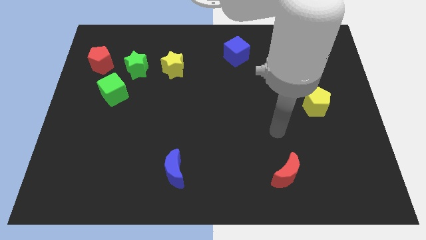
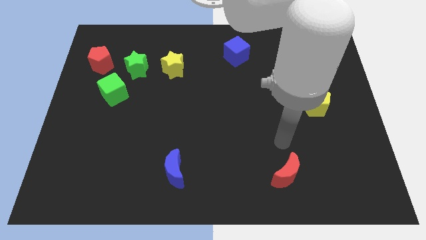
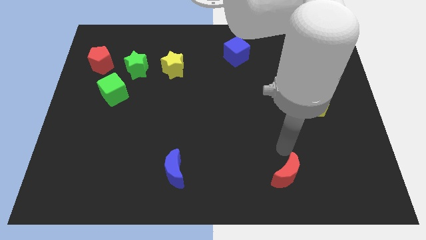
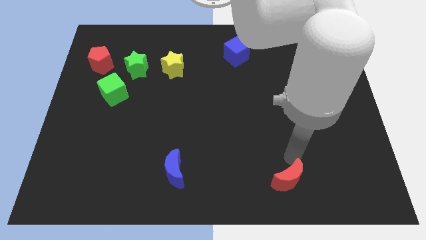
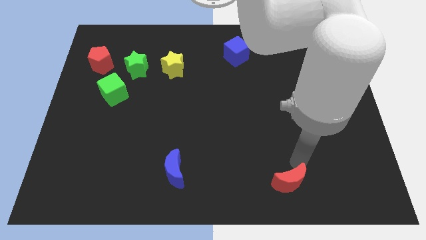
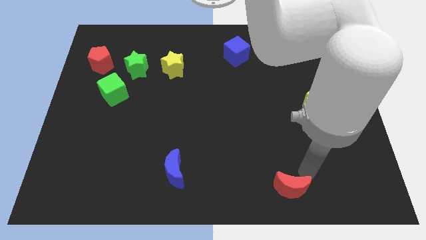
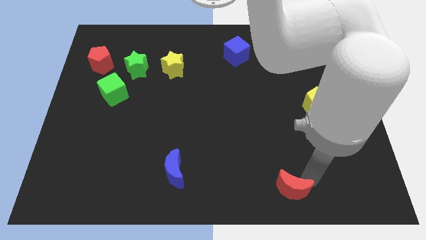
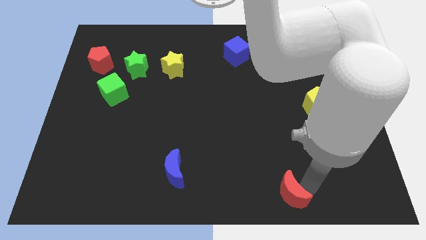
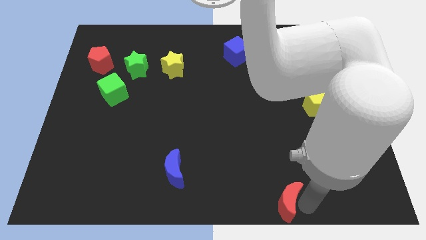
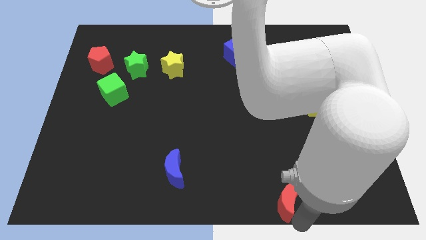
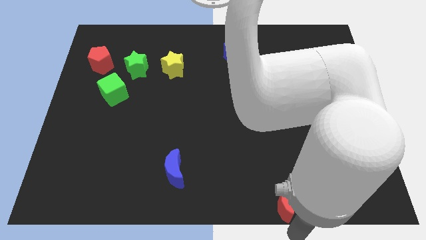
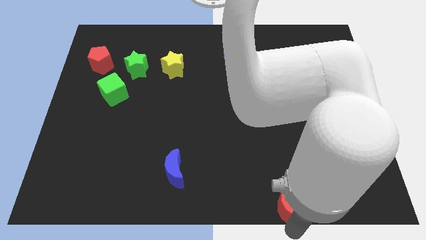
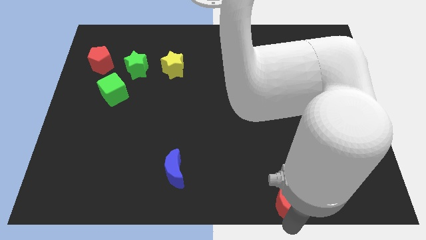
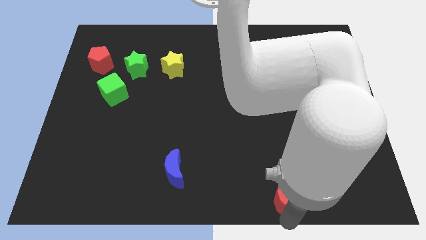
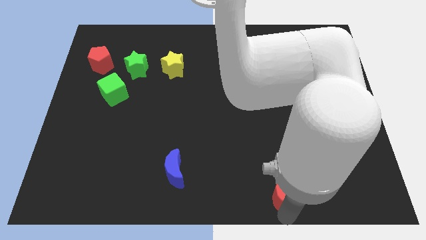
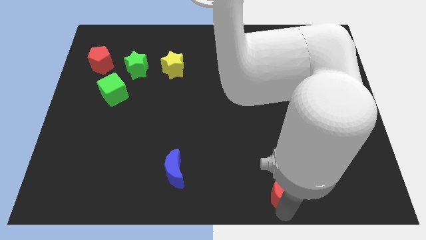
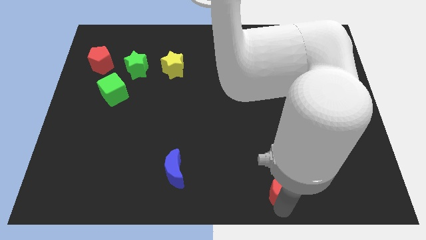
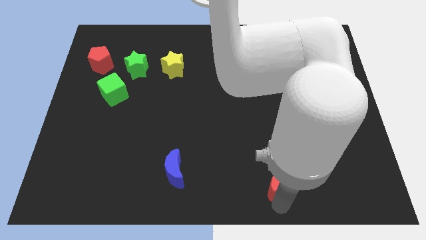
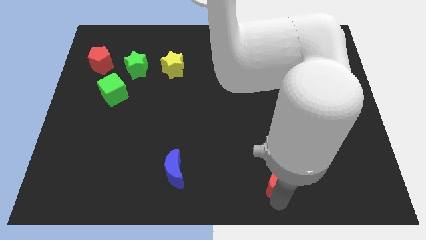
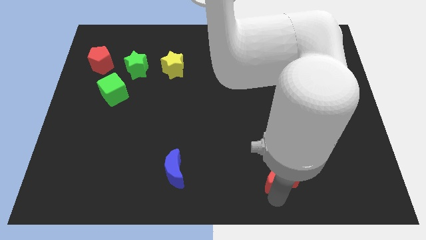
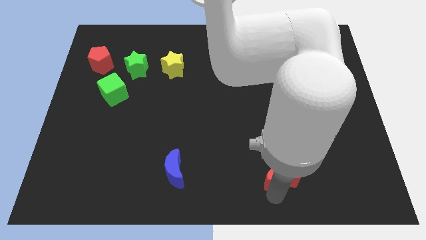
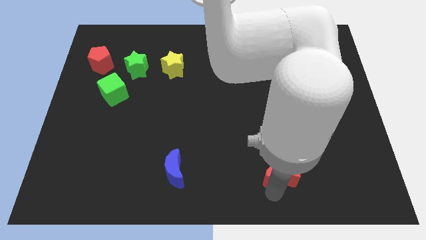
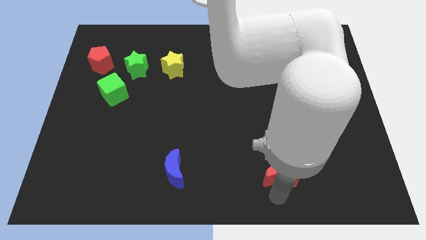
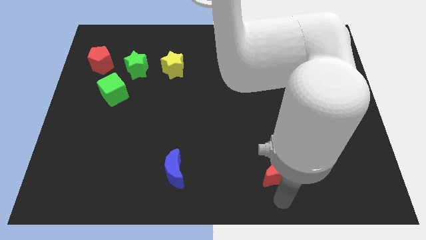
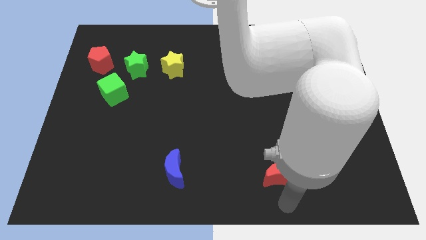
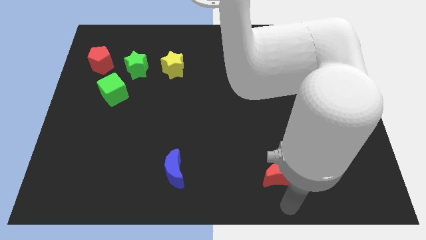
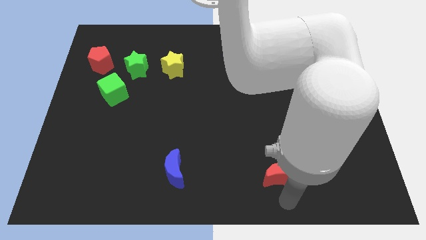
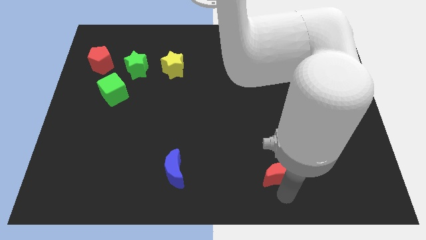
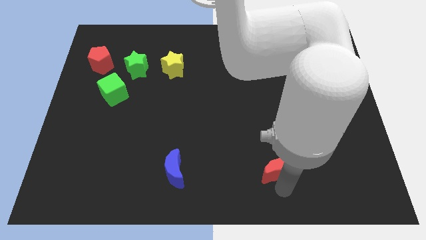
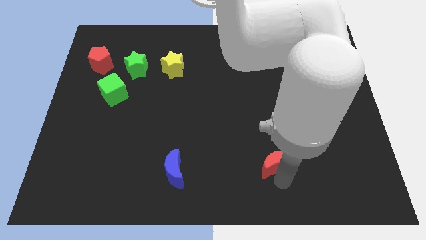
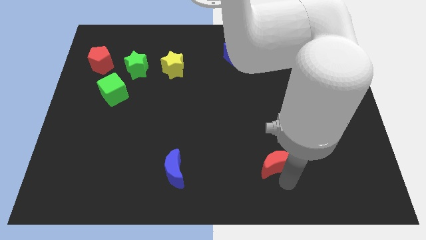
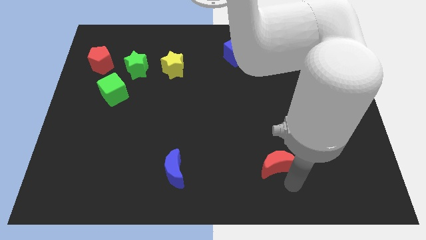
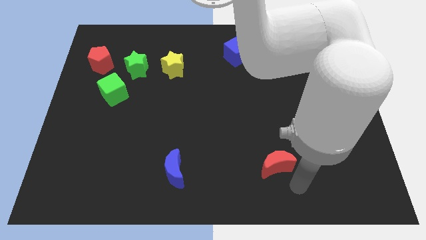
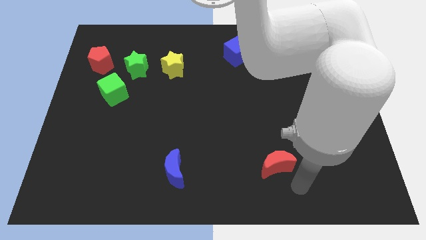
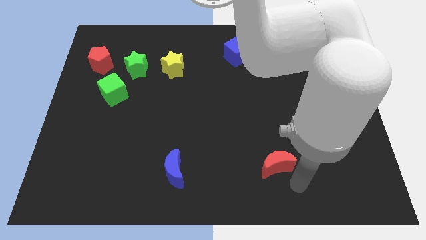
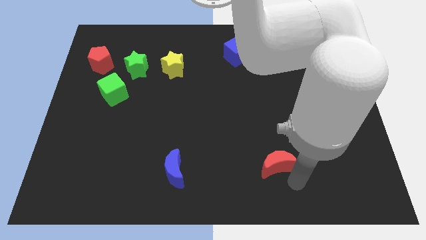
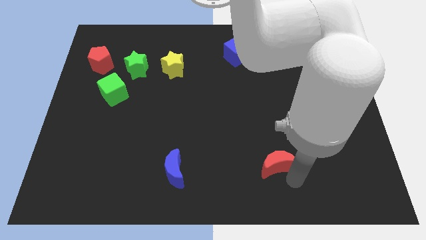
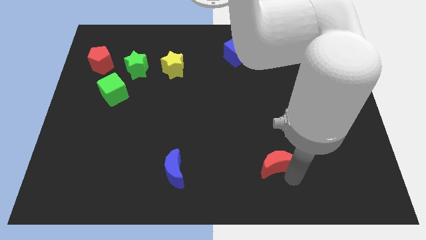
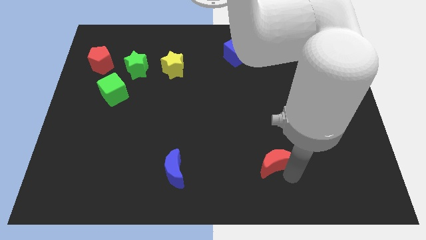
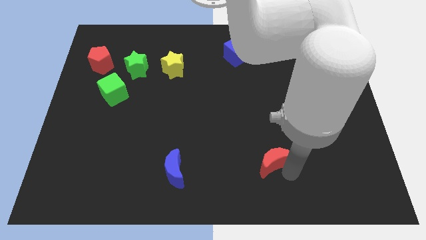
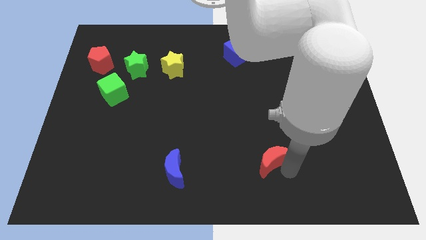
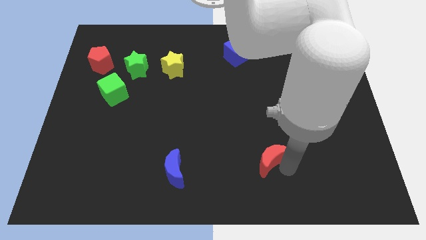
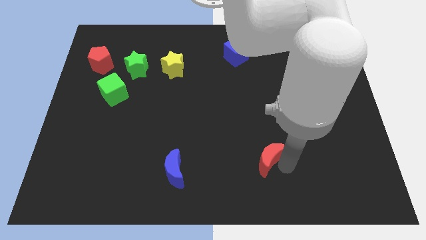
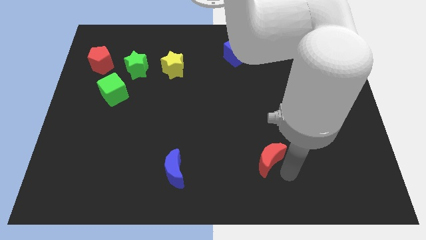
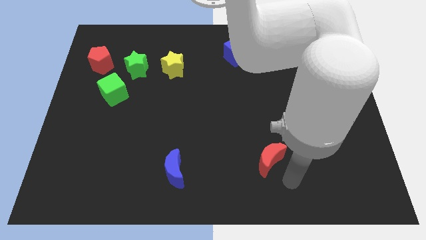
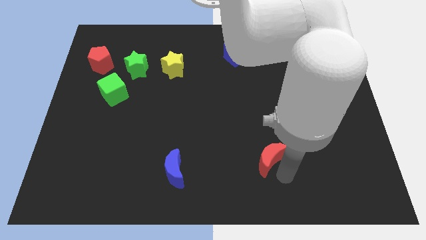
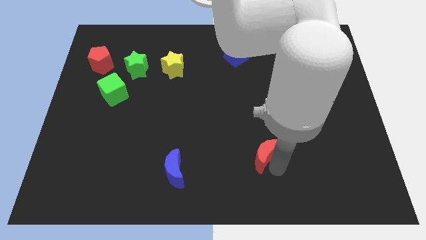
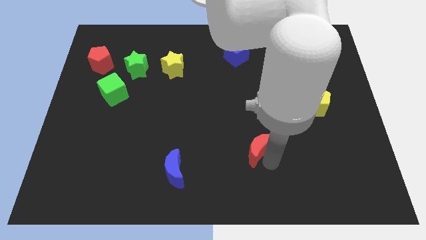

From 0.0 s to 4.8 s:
push the red moon diagonally up and to the left slightly

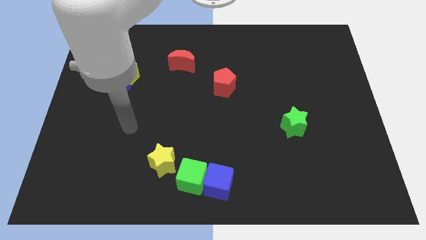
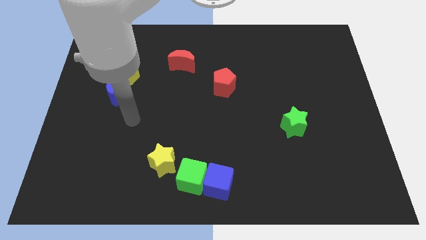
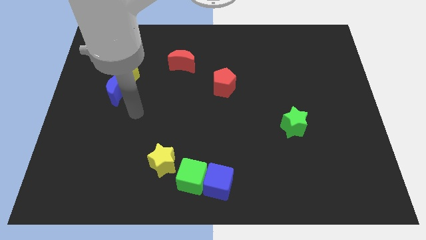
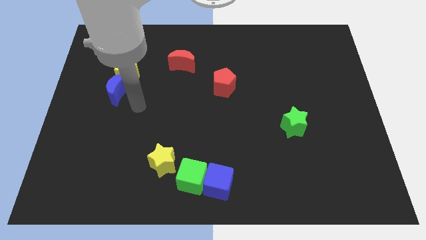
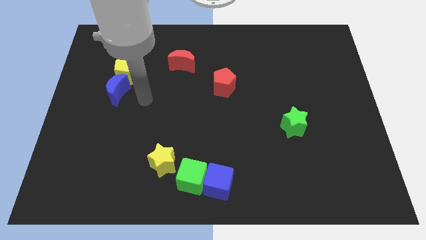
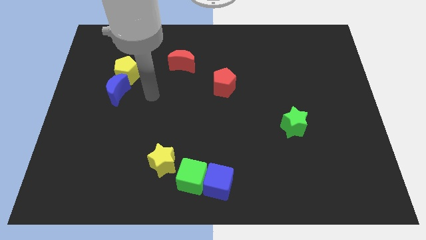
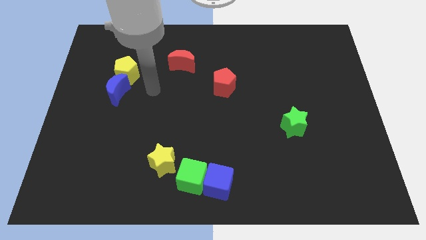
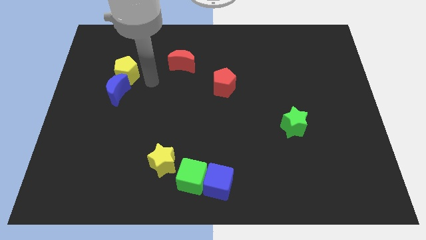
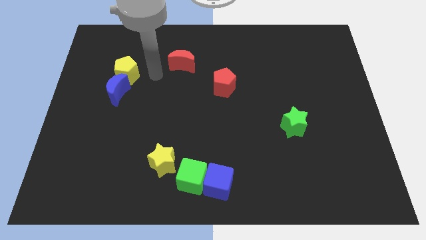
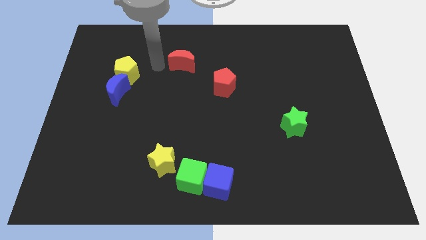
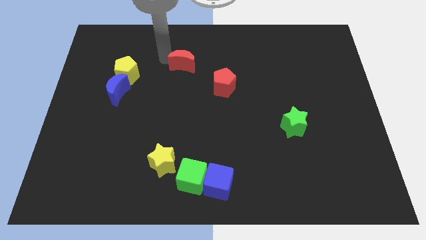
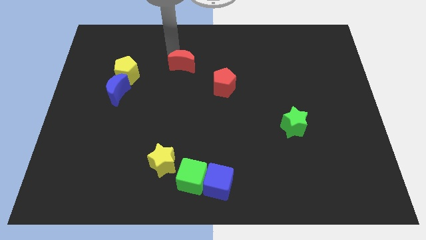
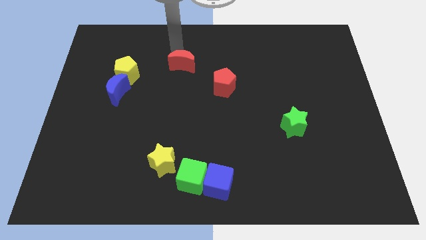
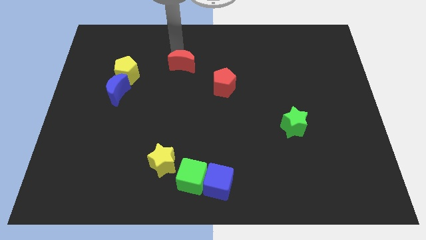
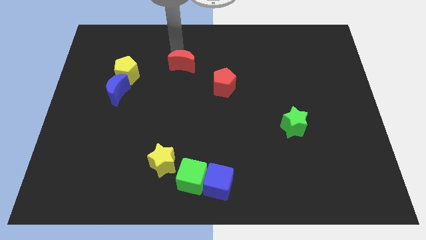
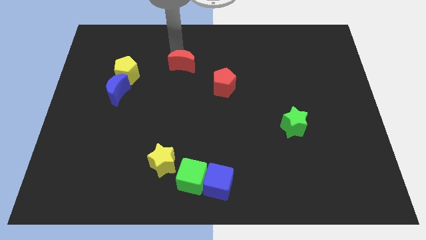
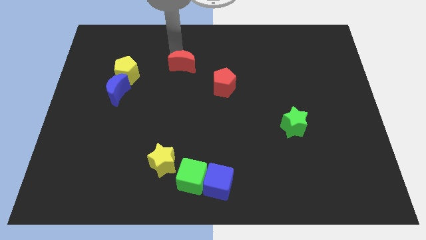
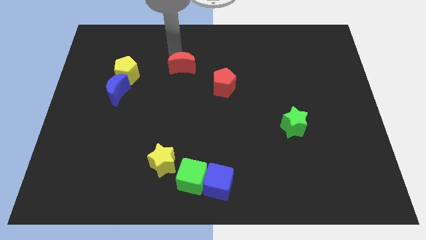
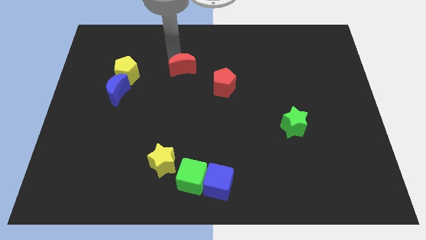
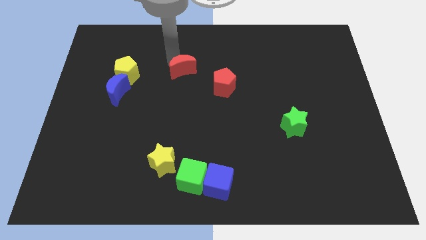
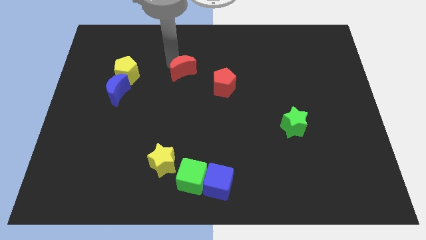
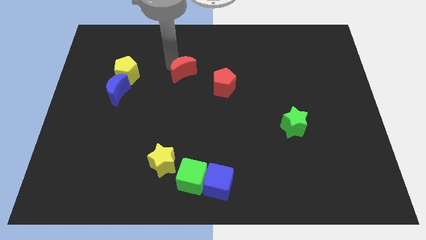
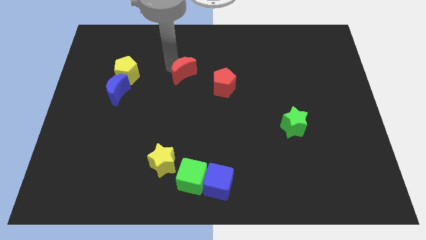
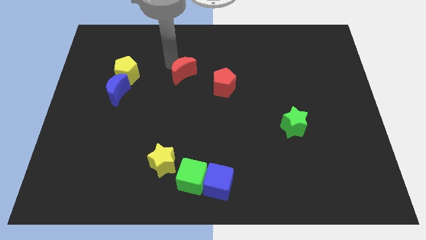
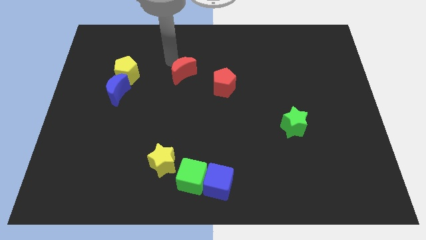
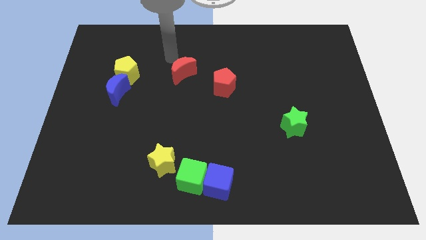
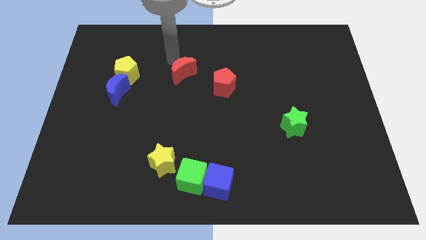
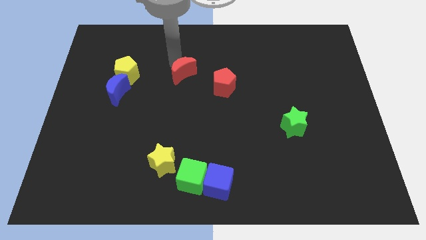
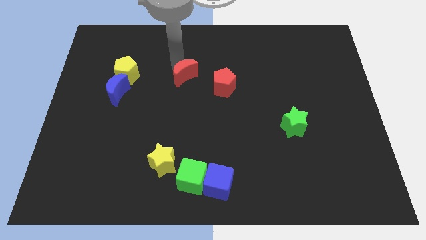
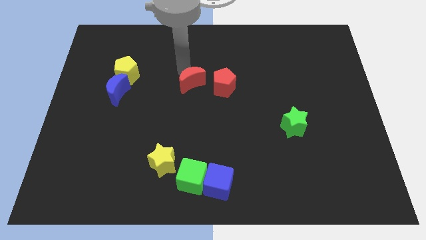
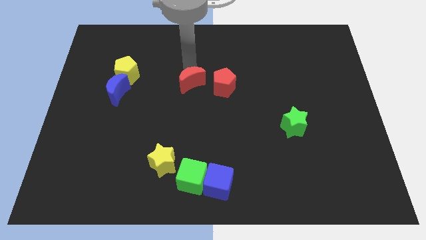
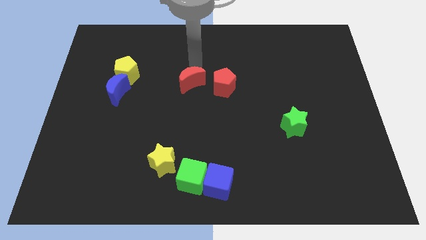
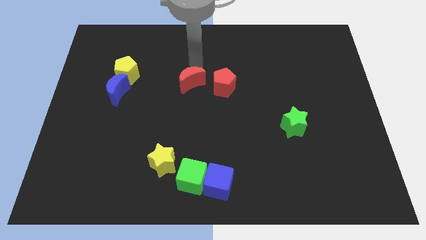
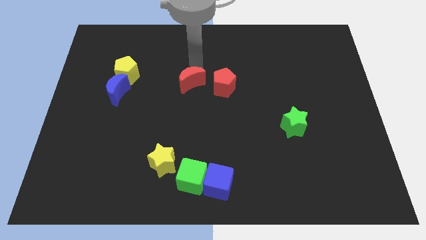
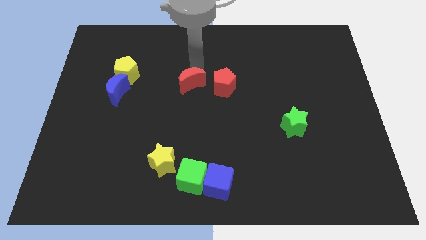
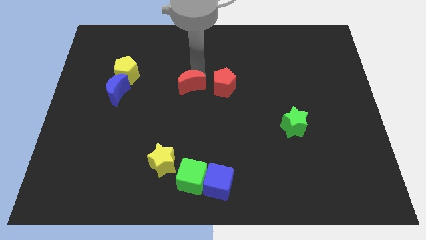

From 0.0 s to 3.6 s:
slightly push the red moon downwards
